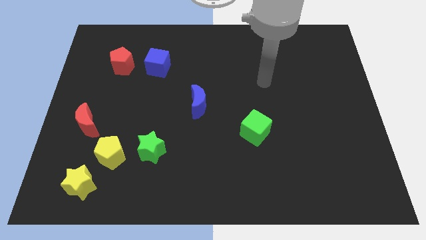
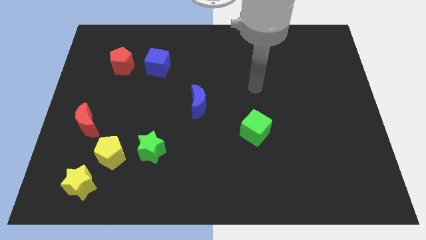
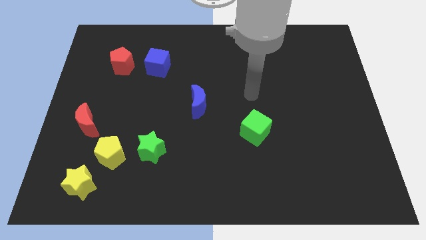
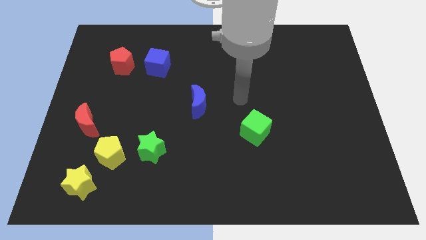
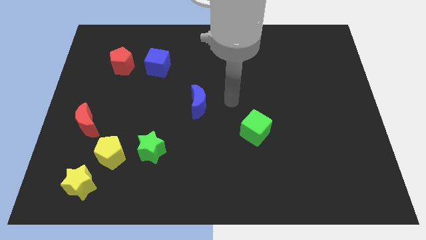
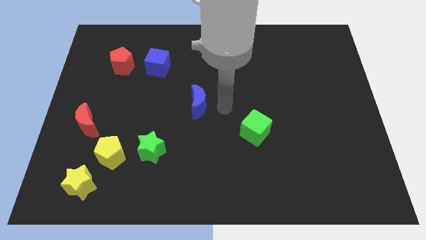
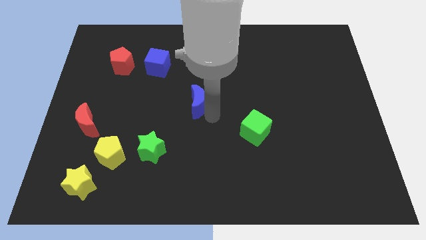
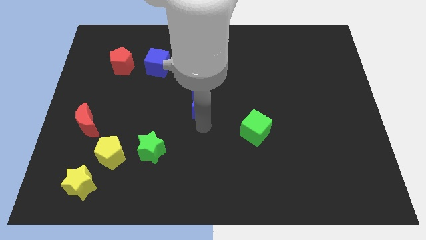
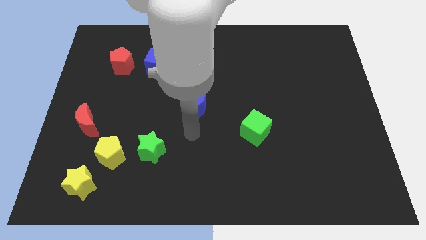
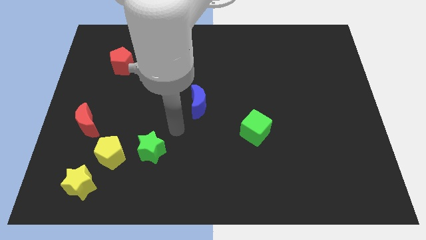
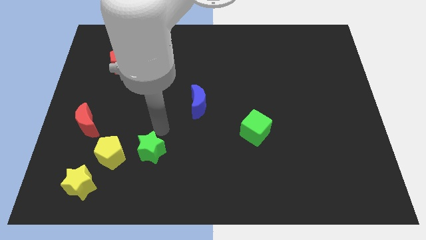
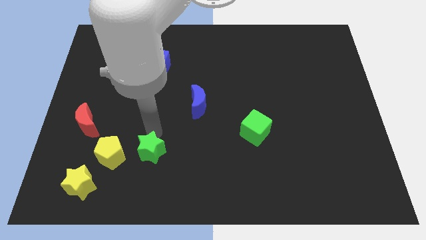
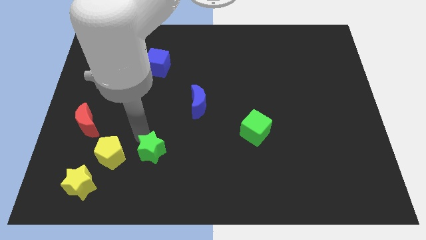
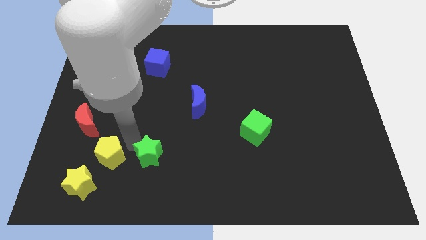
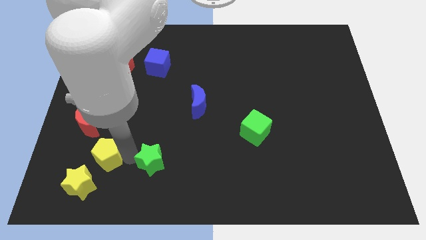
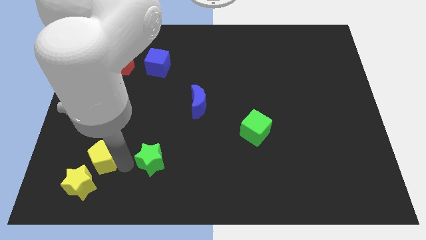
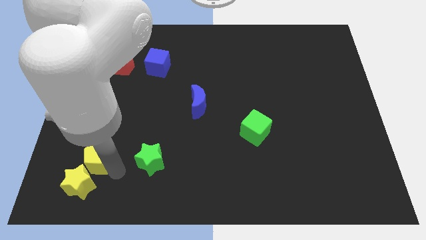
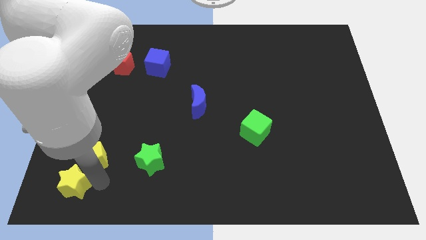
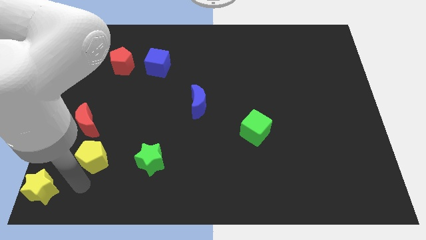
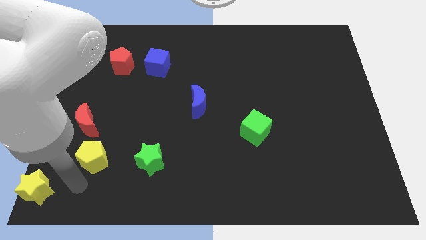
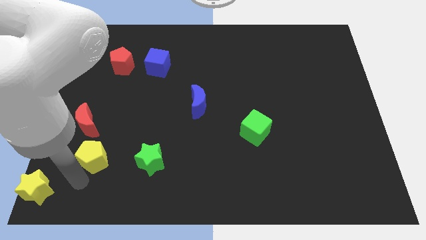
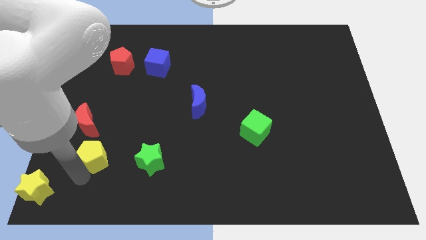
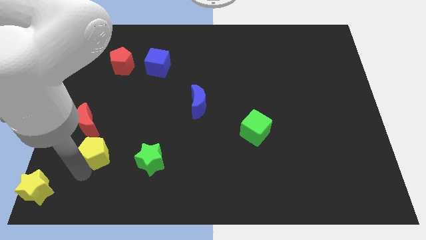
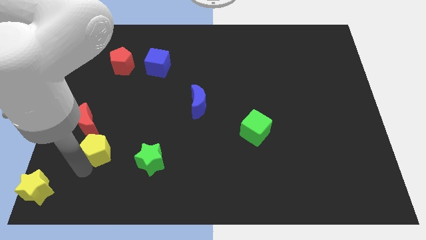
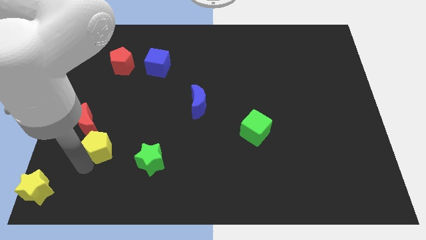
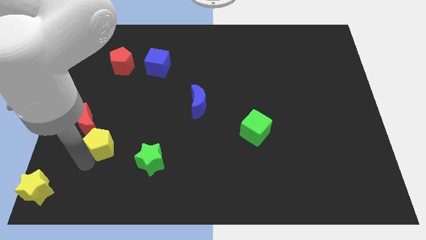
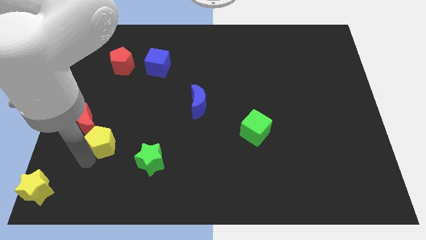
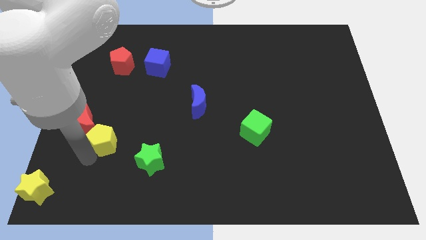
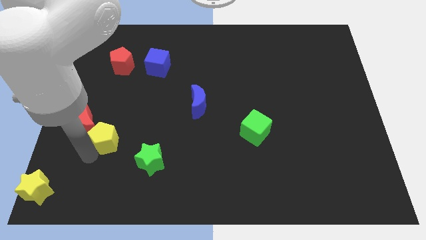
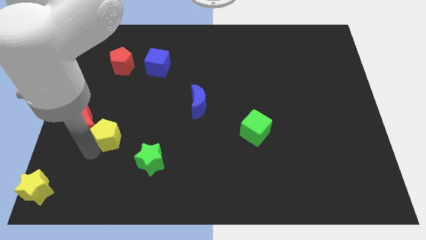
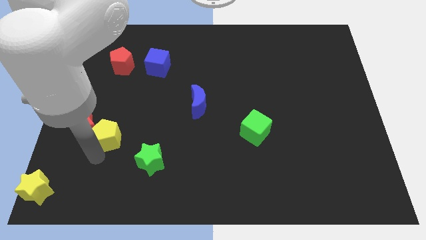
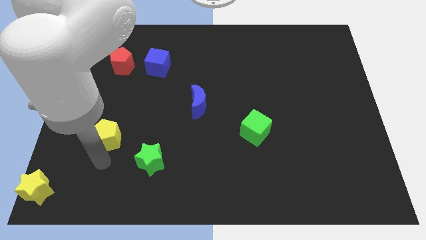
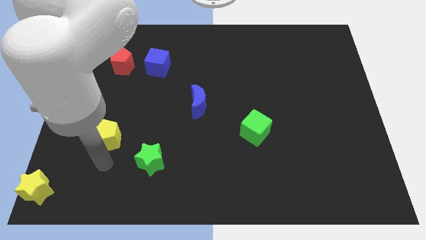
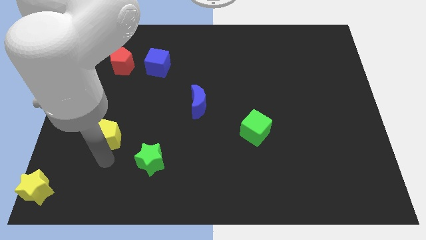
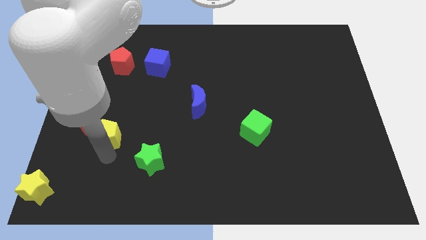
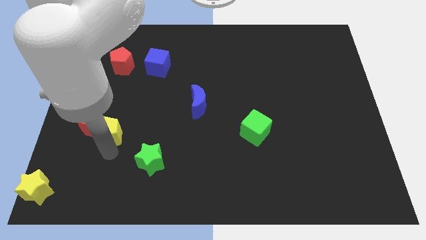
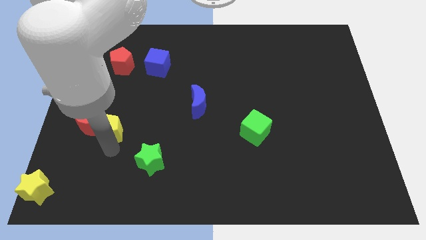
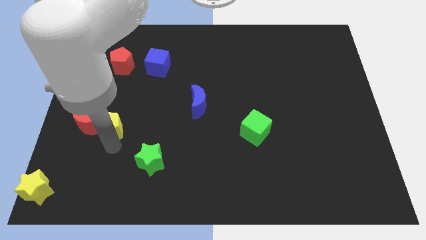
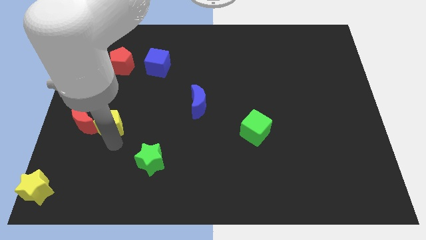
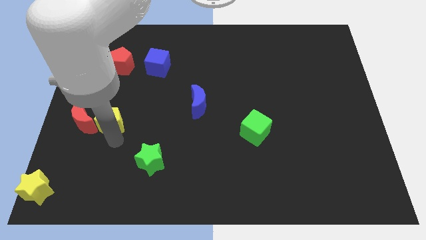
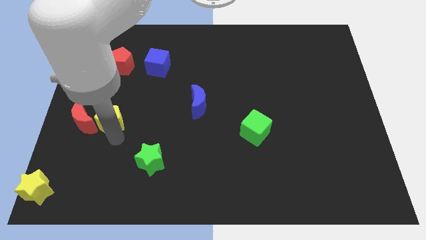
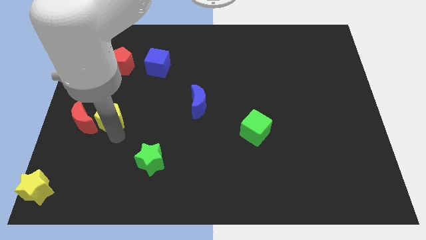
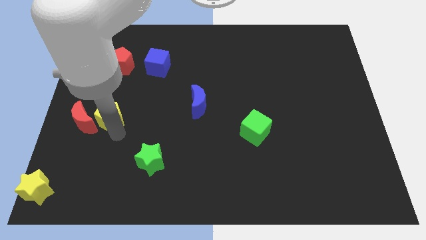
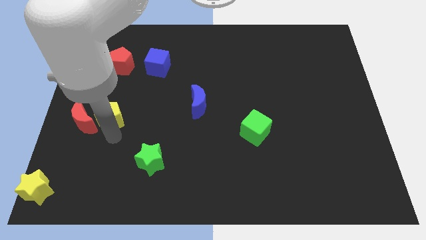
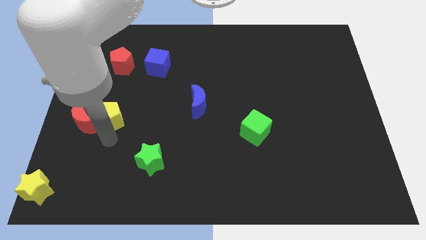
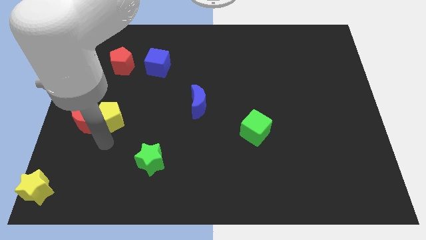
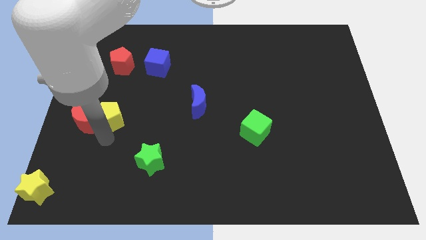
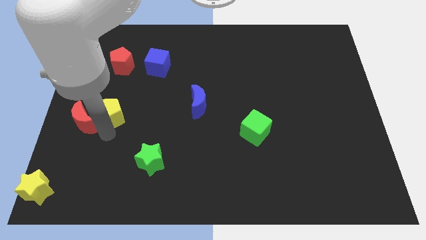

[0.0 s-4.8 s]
push the yellow pentagon to the bottom of the red pentagon

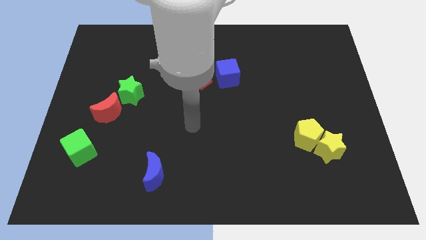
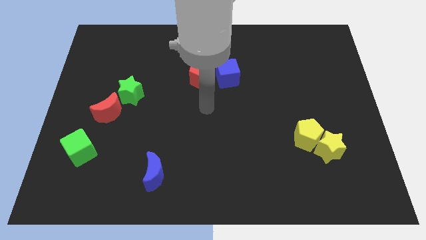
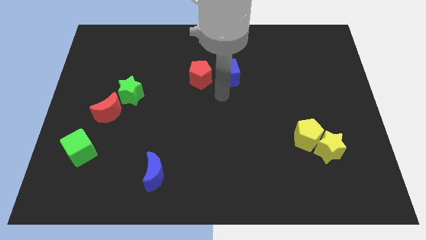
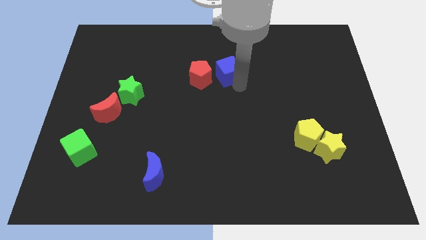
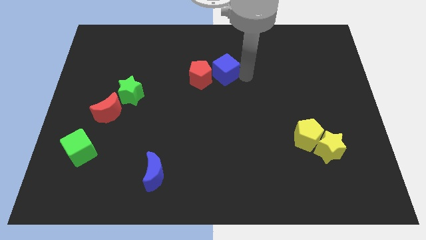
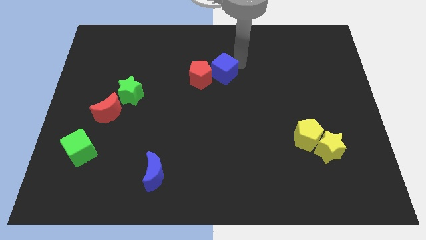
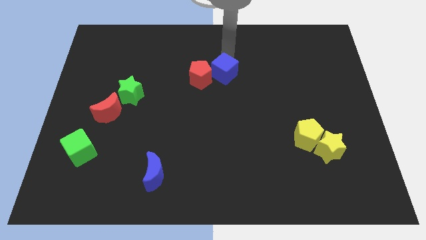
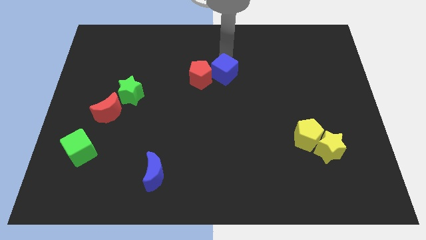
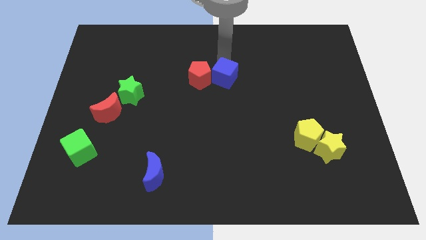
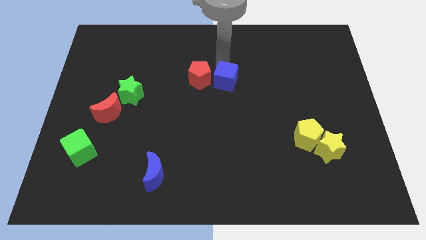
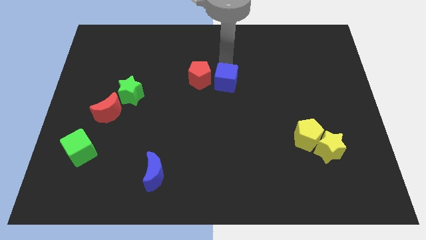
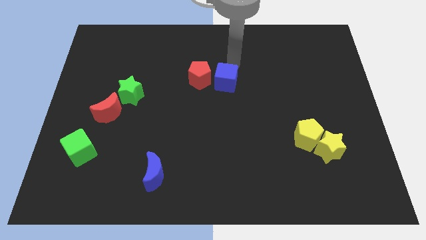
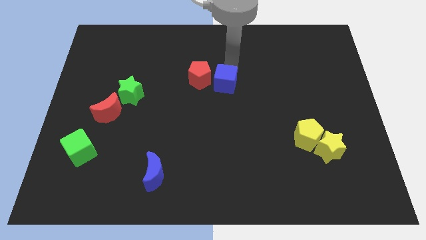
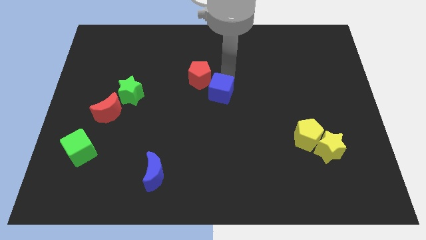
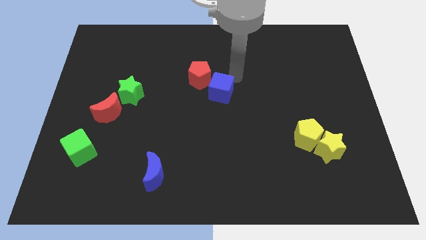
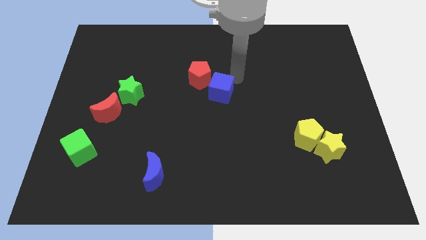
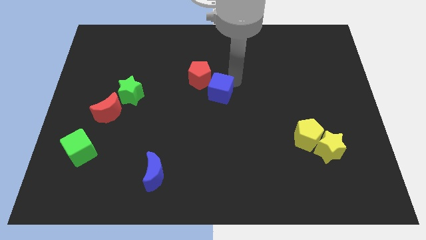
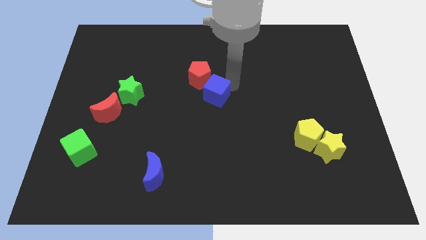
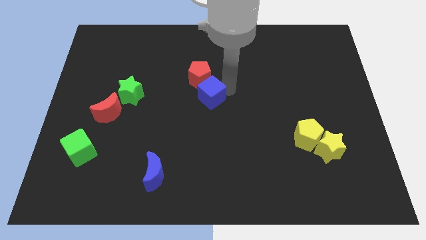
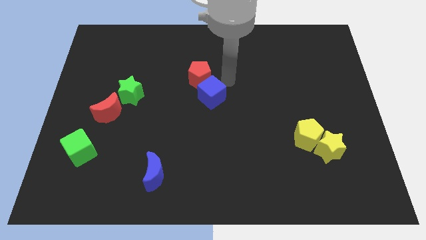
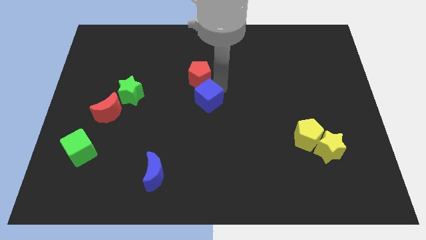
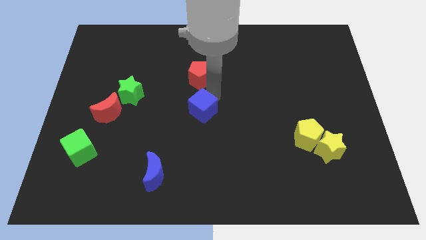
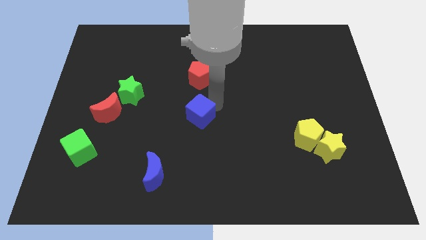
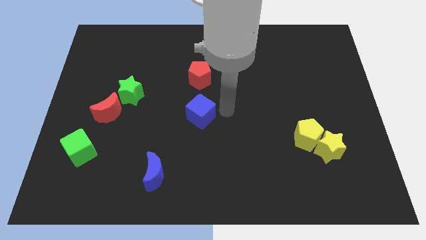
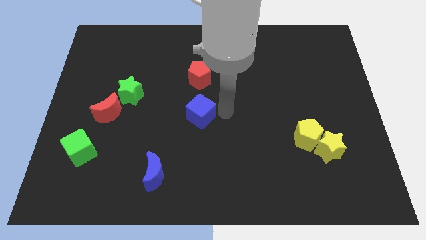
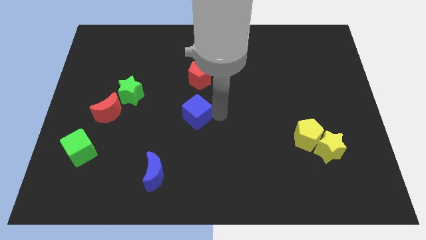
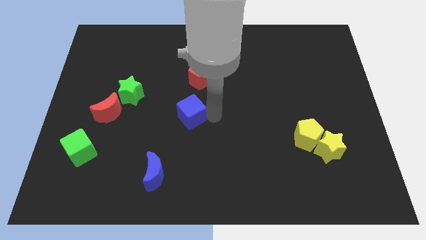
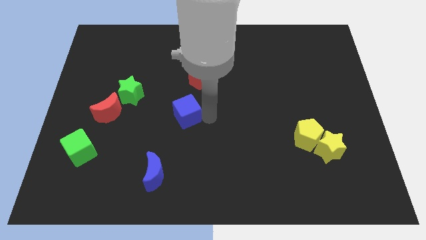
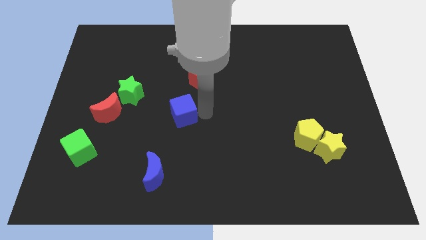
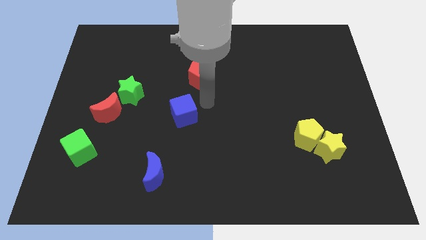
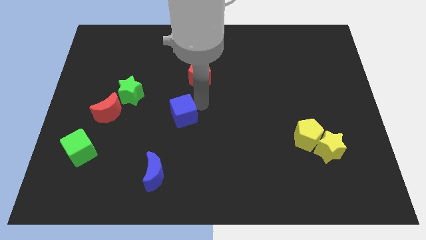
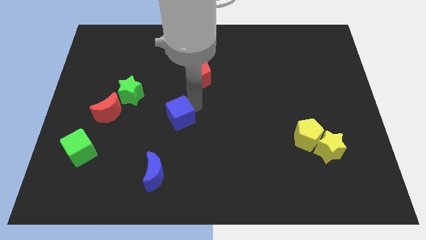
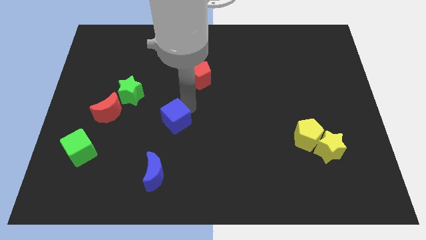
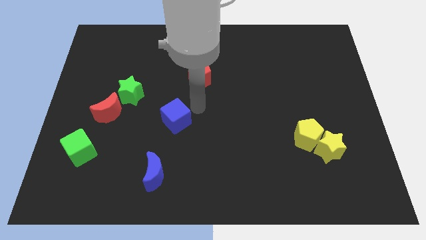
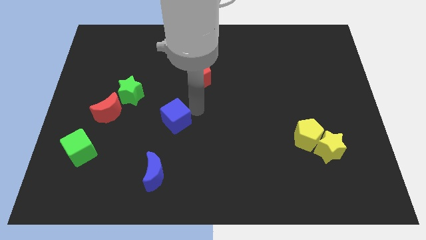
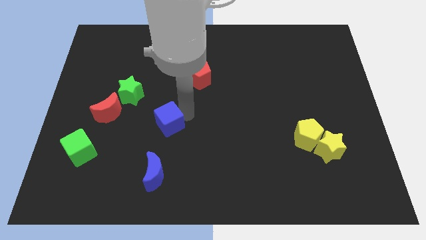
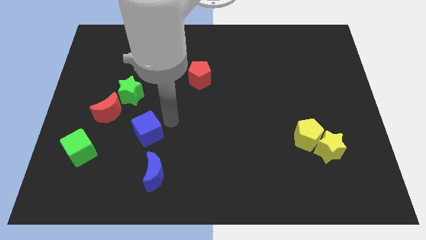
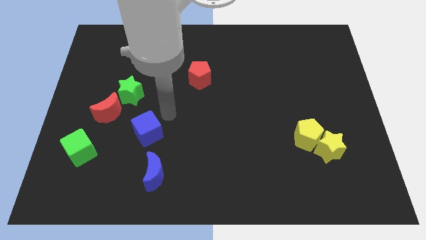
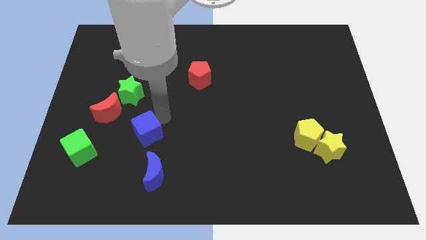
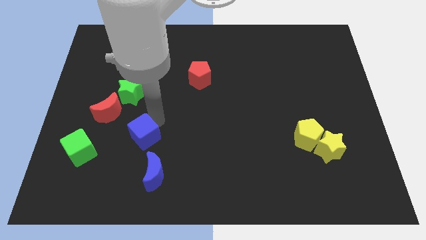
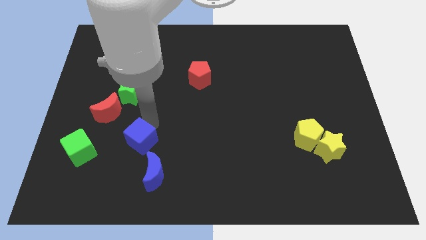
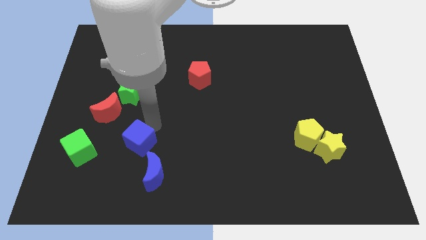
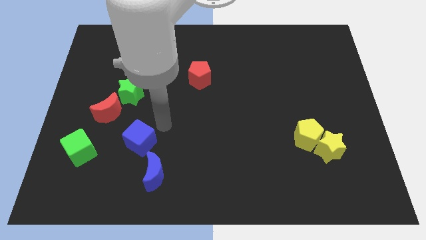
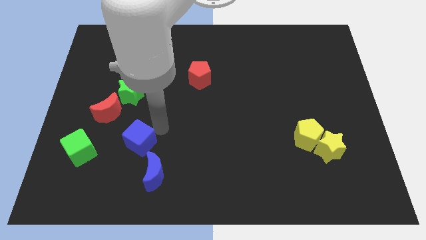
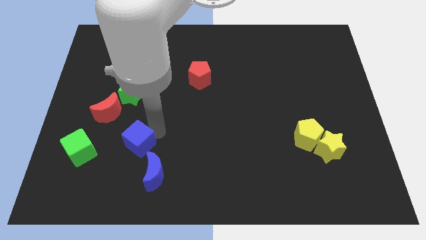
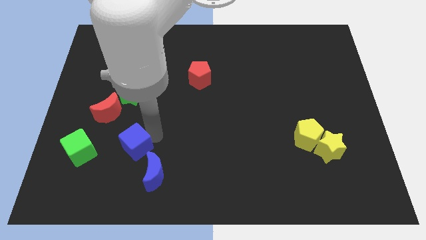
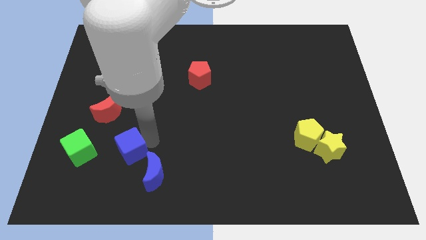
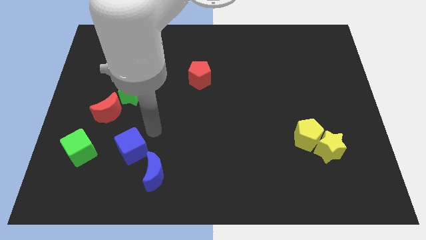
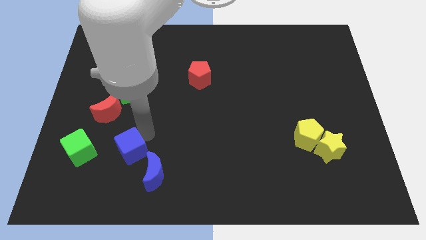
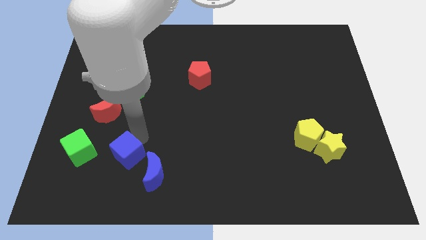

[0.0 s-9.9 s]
move the blue cube just left of the blue moon
